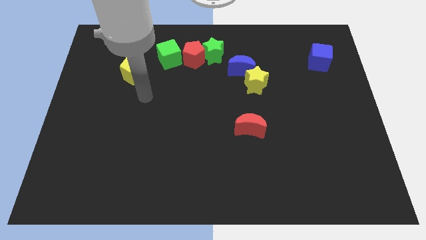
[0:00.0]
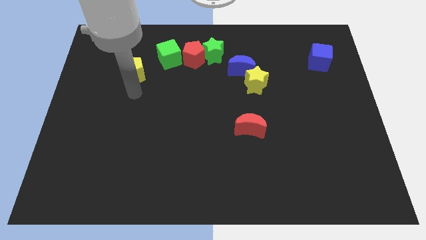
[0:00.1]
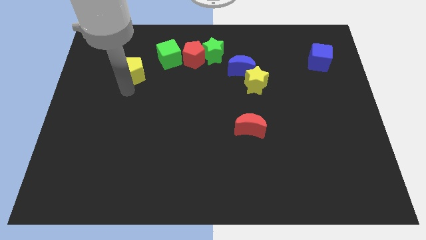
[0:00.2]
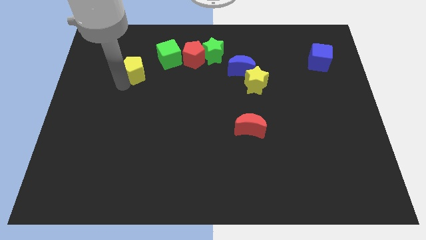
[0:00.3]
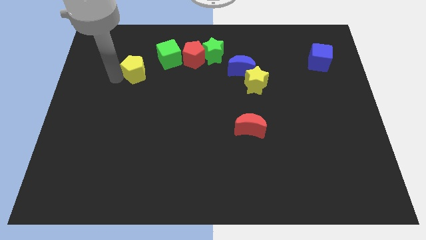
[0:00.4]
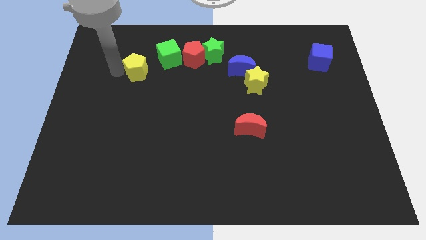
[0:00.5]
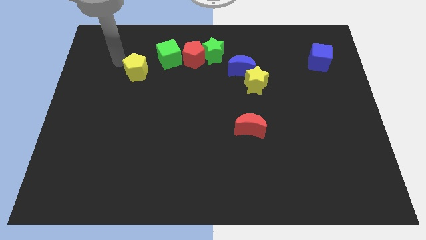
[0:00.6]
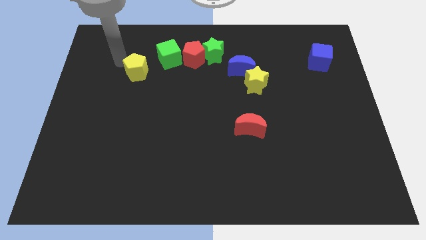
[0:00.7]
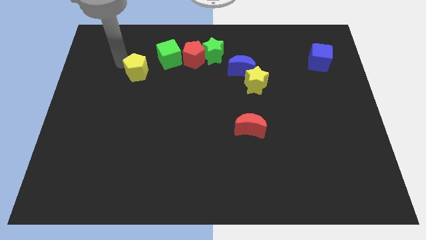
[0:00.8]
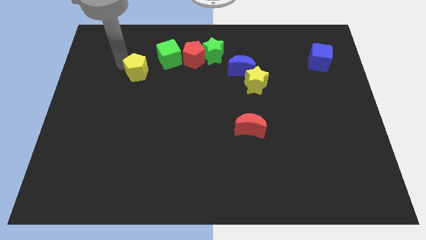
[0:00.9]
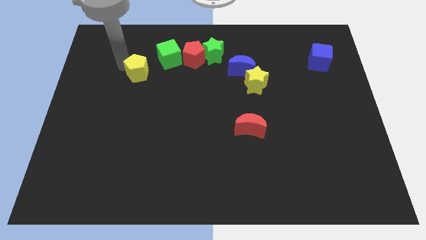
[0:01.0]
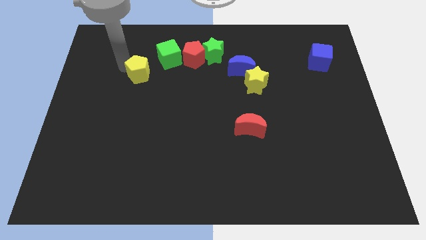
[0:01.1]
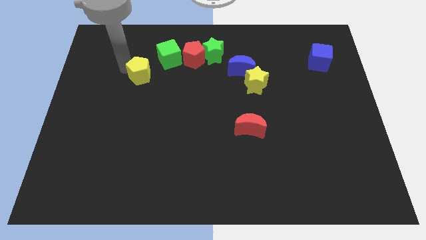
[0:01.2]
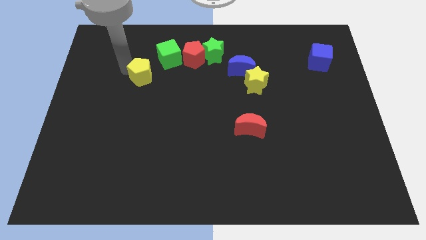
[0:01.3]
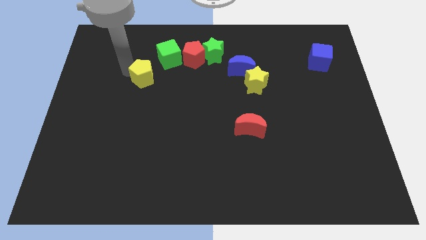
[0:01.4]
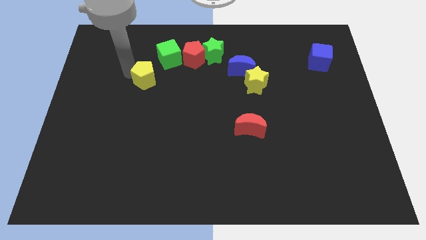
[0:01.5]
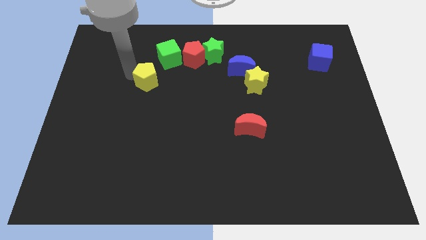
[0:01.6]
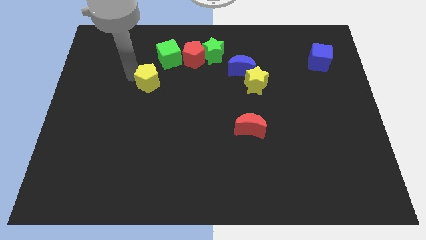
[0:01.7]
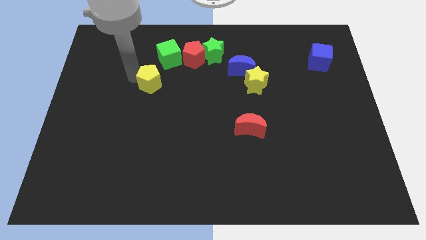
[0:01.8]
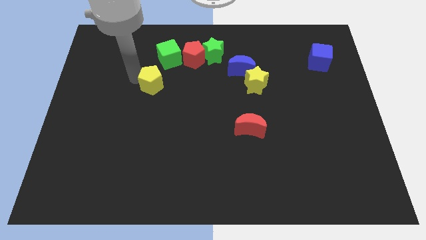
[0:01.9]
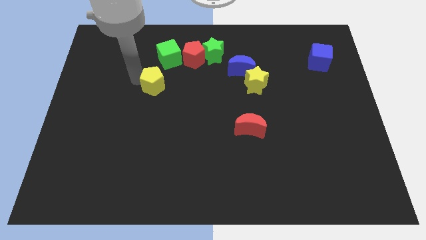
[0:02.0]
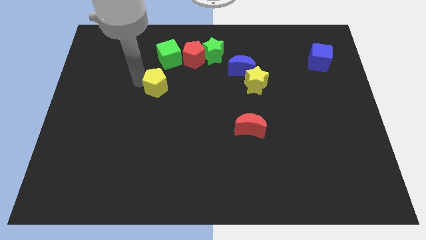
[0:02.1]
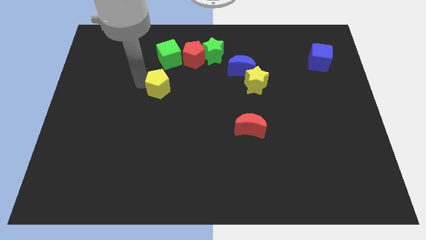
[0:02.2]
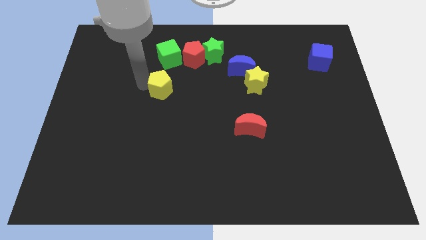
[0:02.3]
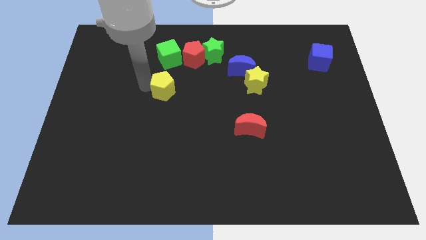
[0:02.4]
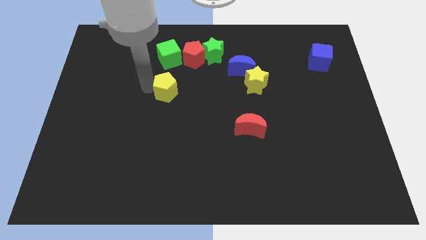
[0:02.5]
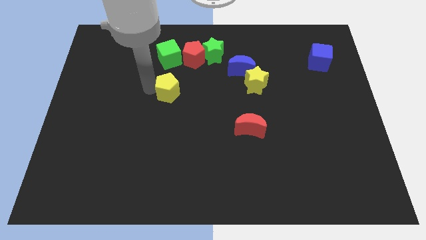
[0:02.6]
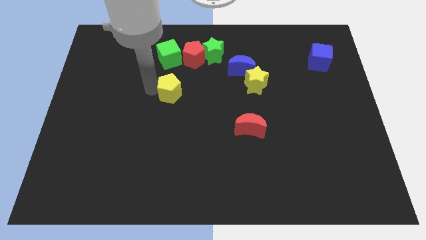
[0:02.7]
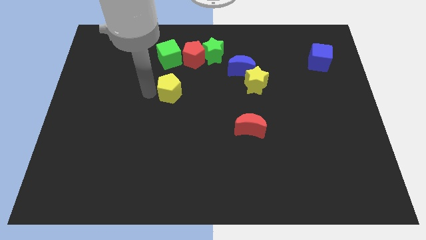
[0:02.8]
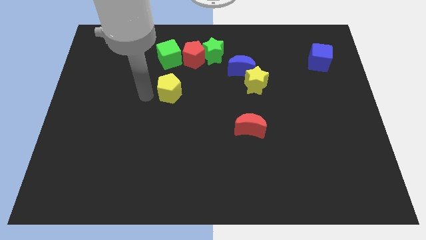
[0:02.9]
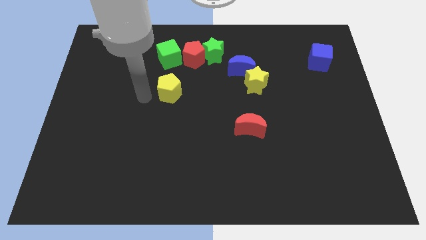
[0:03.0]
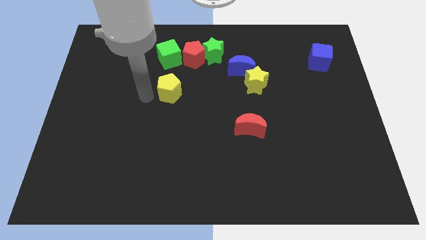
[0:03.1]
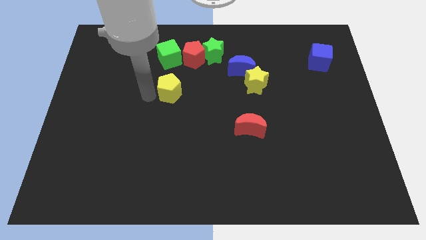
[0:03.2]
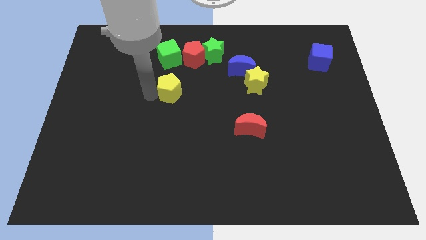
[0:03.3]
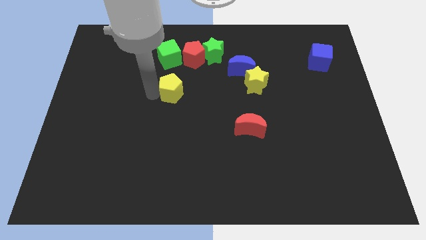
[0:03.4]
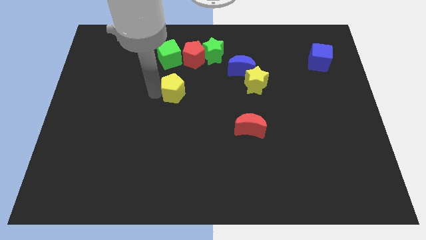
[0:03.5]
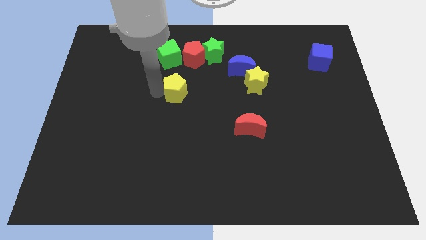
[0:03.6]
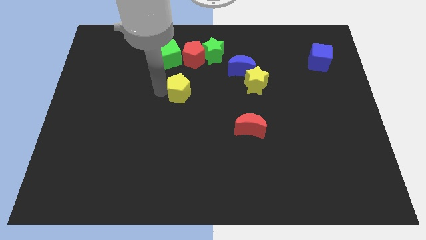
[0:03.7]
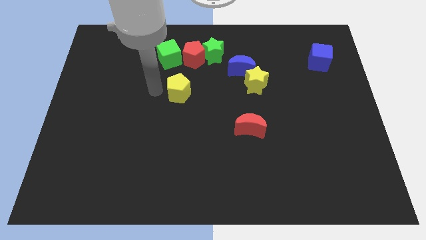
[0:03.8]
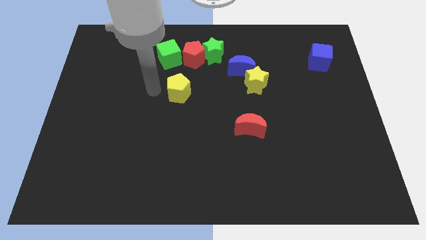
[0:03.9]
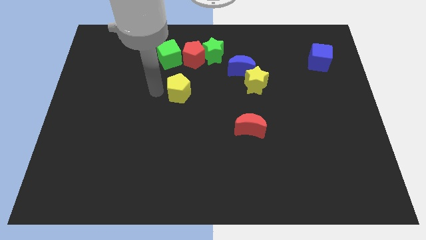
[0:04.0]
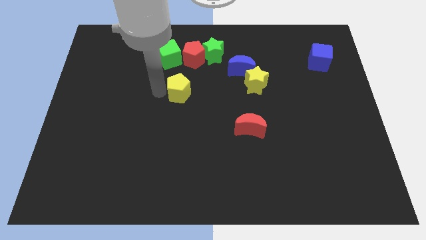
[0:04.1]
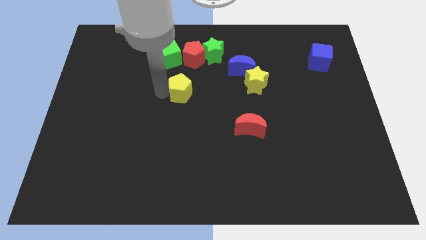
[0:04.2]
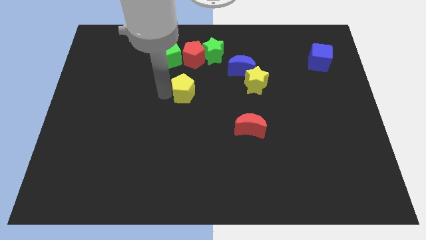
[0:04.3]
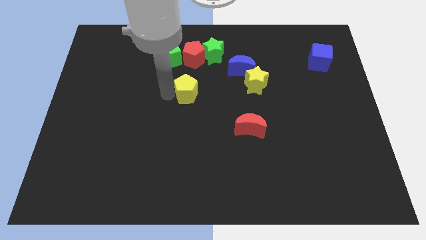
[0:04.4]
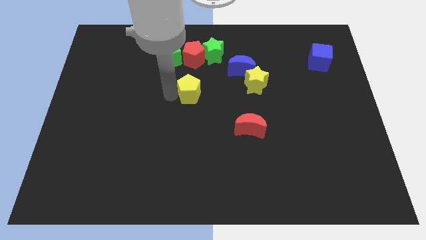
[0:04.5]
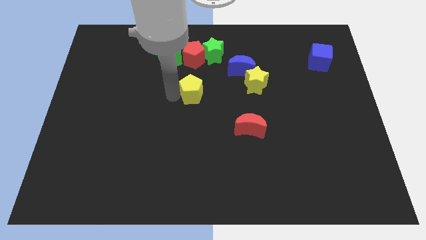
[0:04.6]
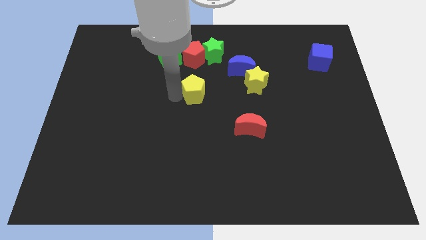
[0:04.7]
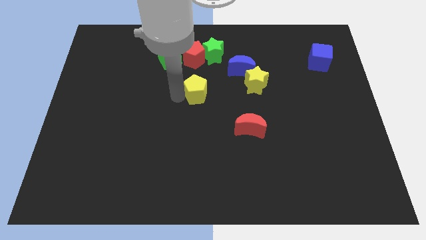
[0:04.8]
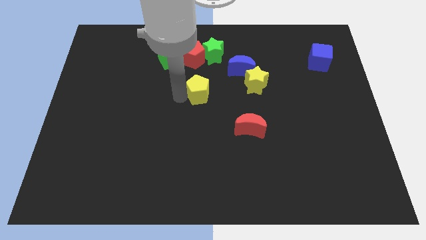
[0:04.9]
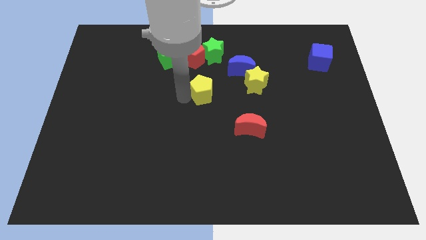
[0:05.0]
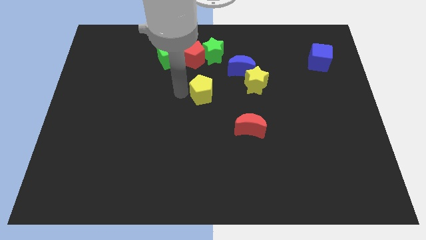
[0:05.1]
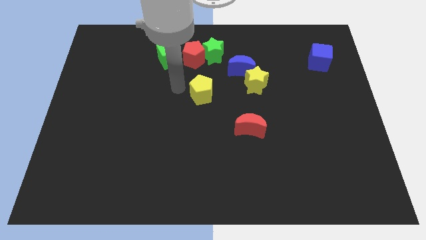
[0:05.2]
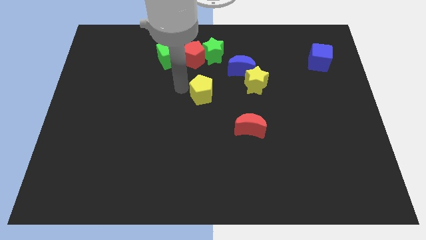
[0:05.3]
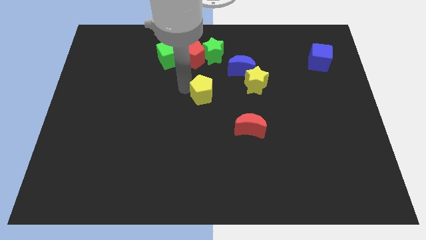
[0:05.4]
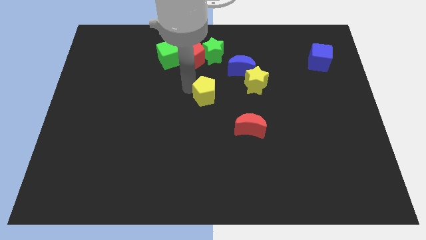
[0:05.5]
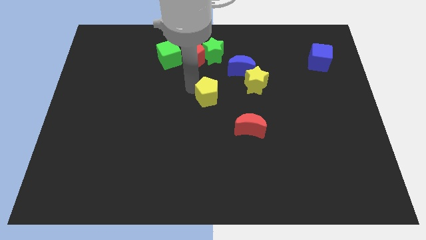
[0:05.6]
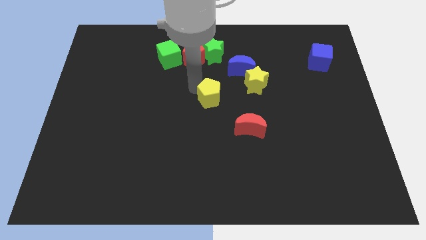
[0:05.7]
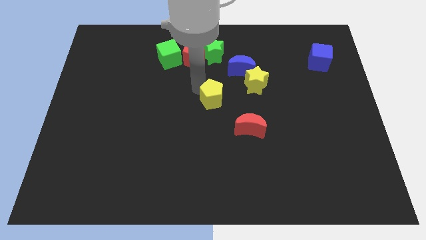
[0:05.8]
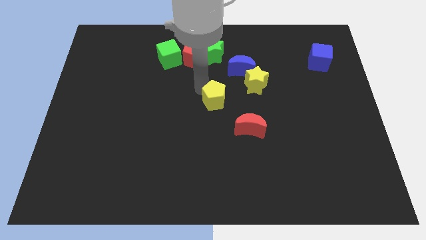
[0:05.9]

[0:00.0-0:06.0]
slide the yellow pentagon to the bottom left of the yellow star

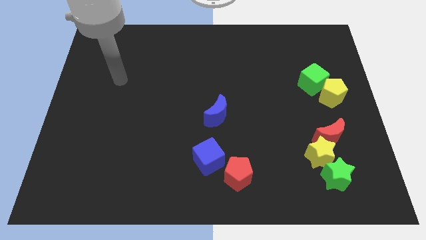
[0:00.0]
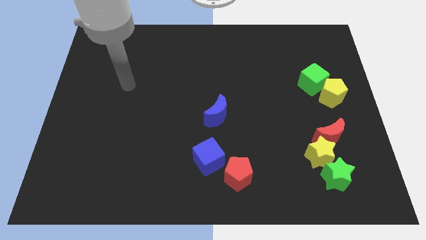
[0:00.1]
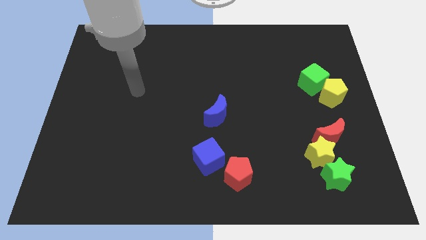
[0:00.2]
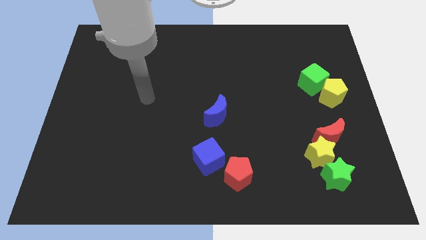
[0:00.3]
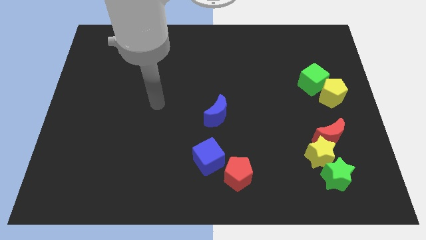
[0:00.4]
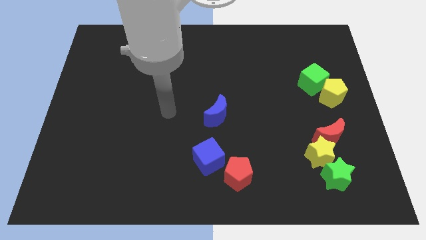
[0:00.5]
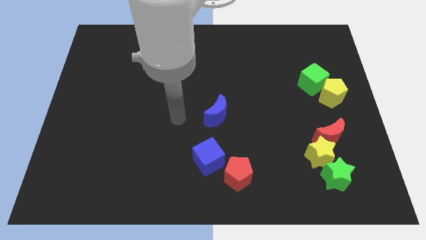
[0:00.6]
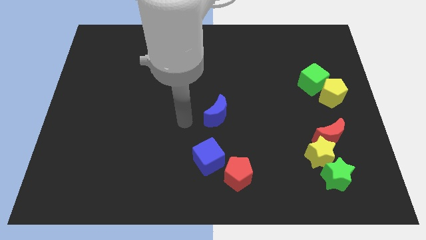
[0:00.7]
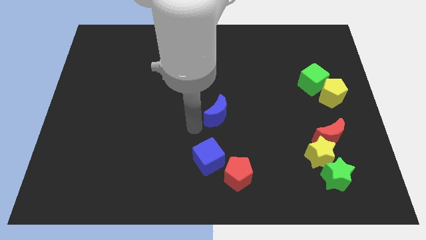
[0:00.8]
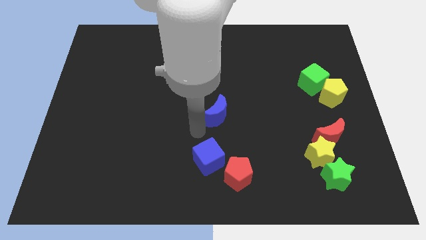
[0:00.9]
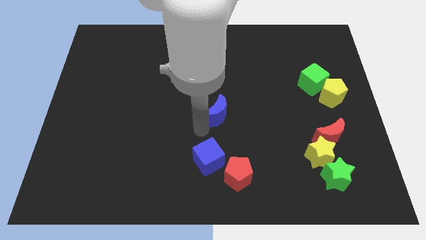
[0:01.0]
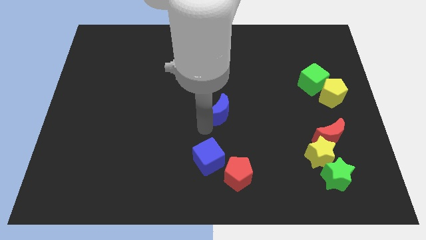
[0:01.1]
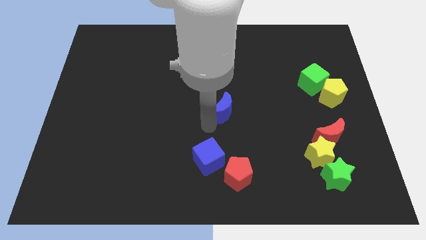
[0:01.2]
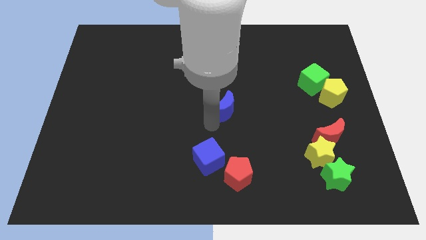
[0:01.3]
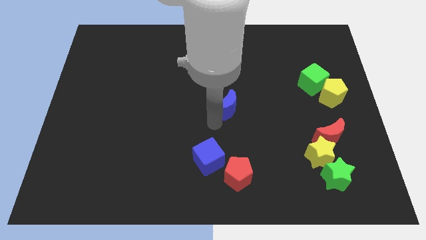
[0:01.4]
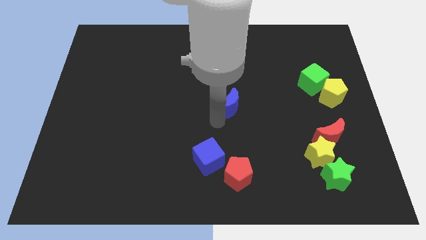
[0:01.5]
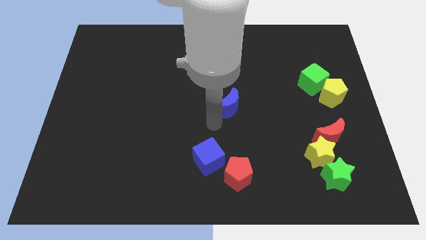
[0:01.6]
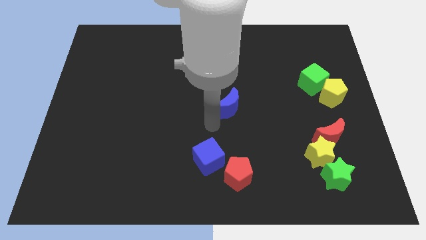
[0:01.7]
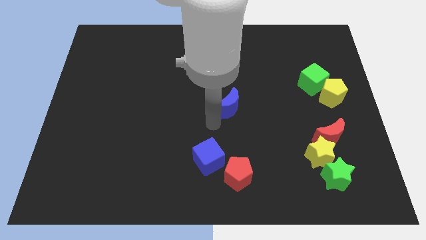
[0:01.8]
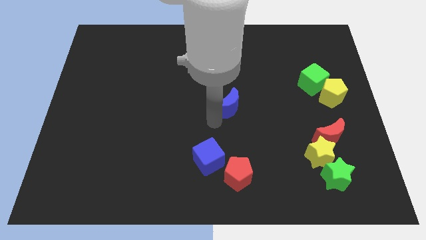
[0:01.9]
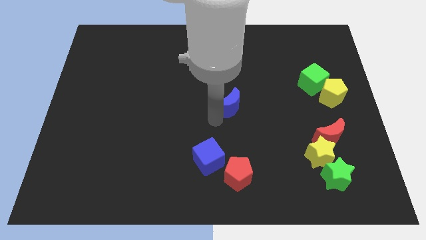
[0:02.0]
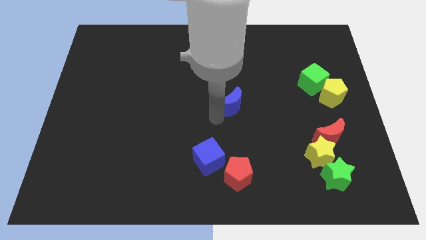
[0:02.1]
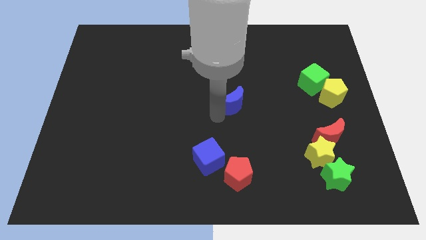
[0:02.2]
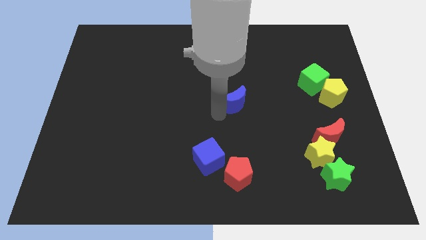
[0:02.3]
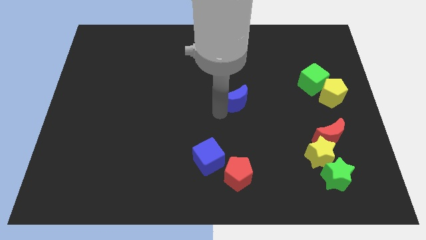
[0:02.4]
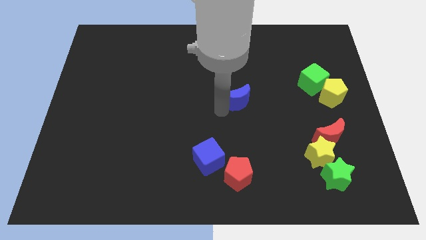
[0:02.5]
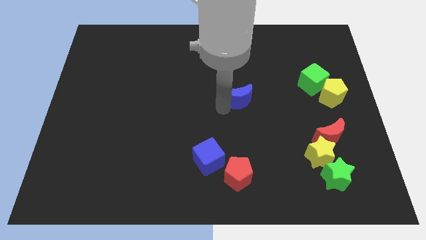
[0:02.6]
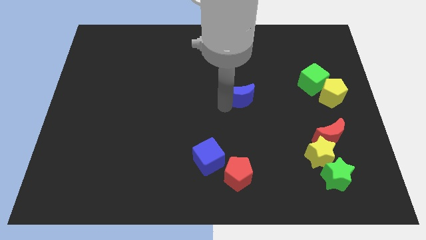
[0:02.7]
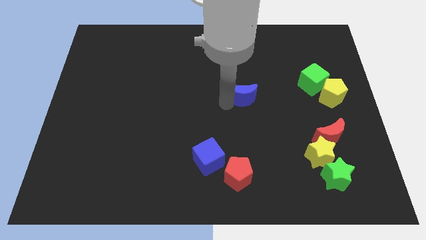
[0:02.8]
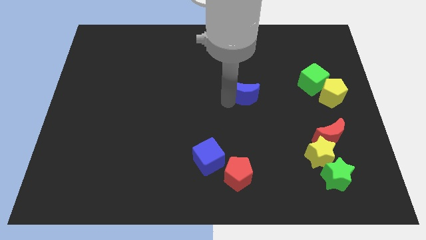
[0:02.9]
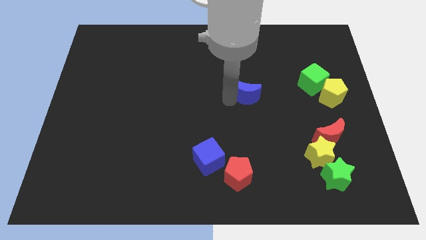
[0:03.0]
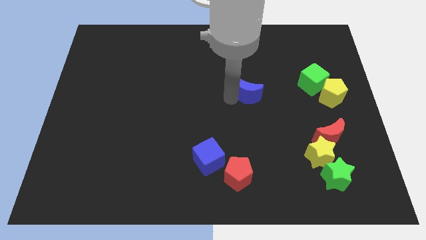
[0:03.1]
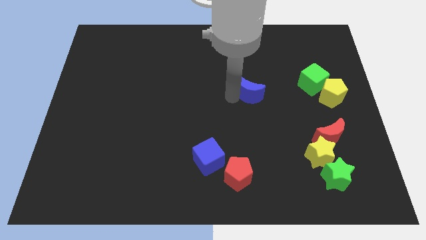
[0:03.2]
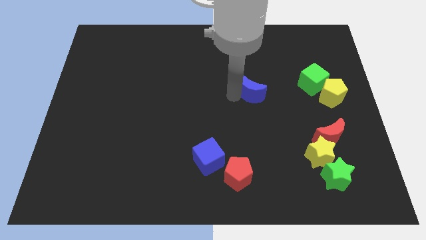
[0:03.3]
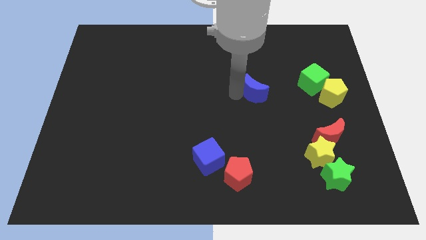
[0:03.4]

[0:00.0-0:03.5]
put the blue moon just left of the green cube
